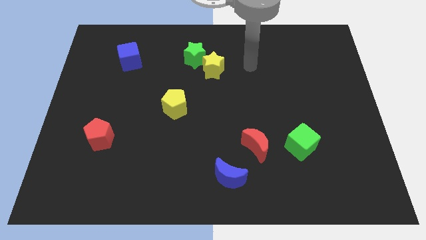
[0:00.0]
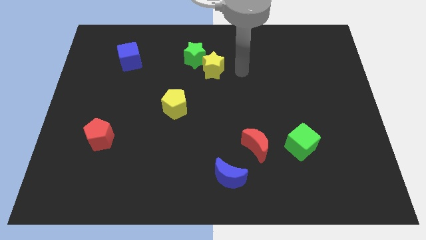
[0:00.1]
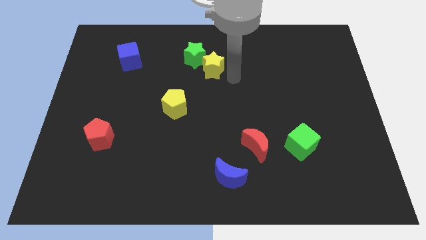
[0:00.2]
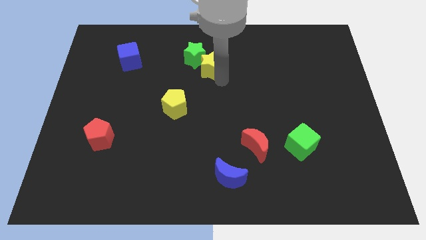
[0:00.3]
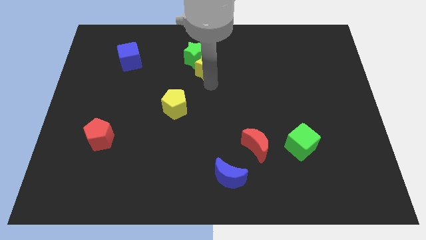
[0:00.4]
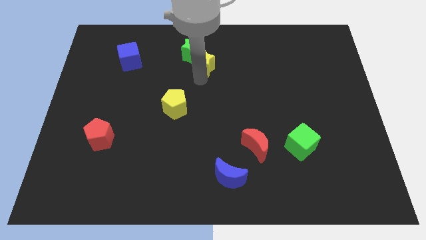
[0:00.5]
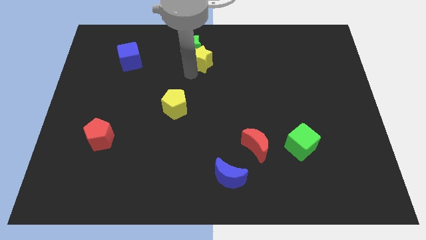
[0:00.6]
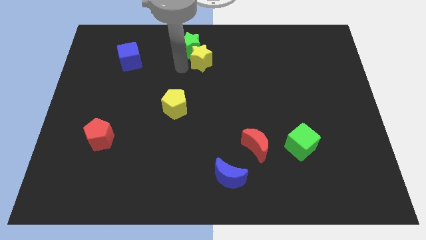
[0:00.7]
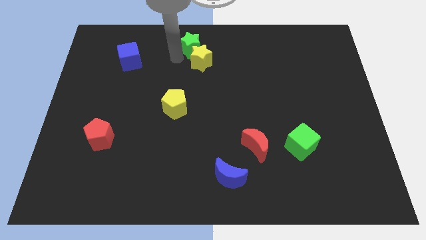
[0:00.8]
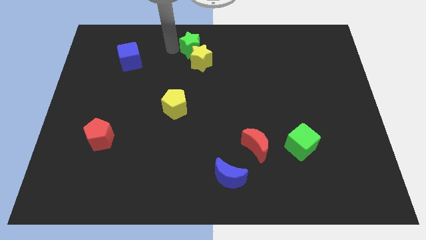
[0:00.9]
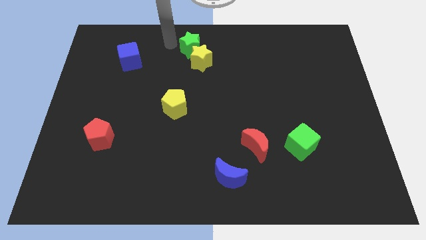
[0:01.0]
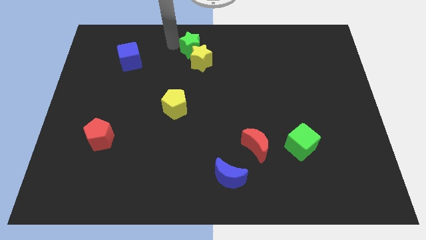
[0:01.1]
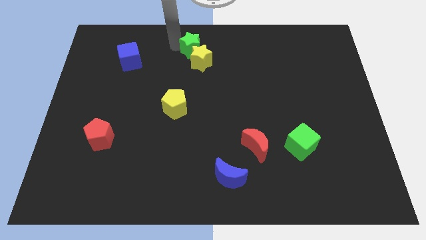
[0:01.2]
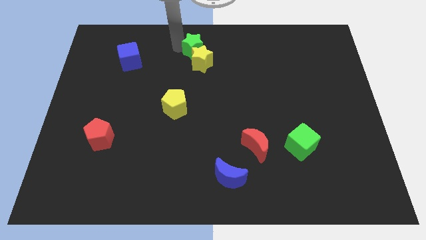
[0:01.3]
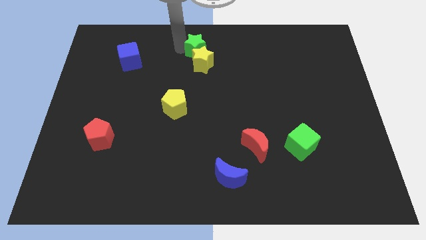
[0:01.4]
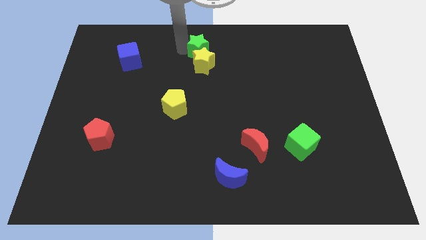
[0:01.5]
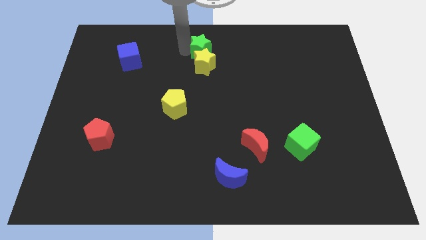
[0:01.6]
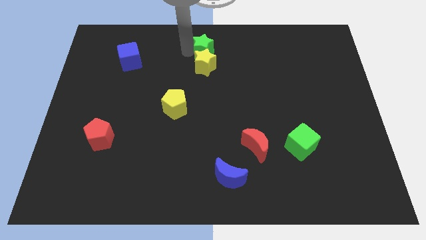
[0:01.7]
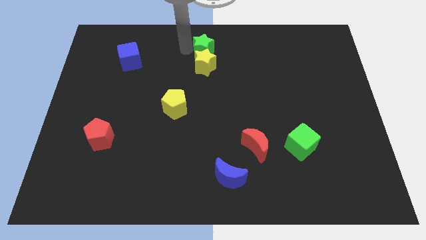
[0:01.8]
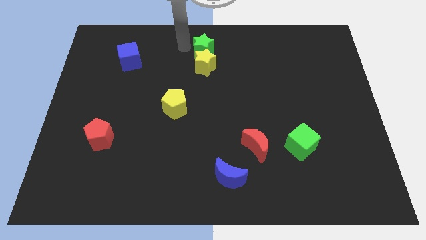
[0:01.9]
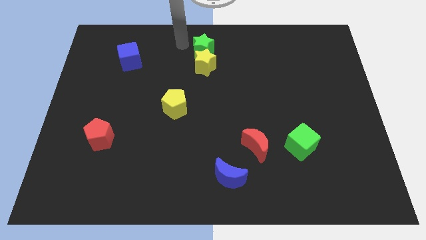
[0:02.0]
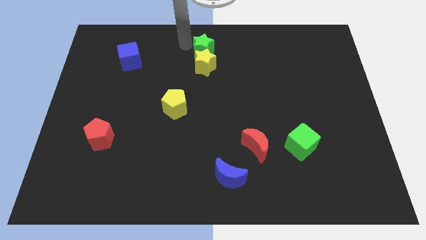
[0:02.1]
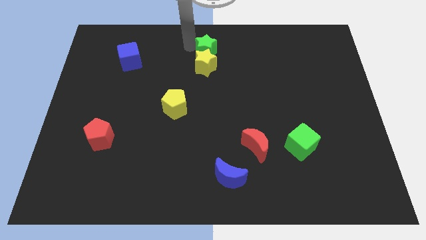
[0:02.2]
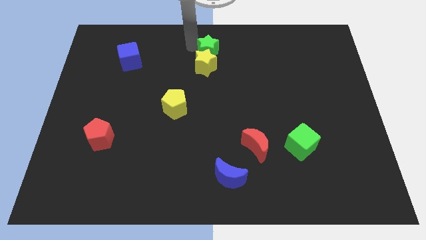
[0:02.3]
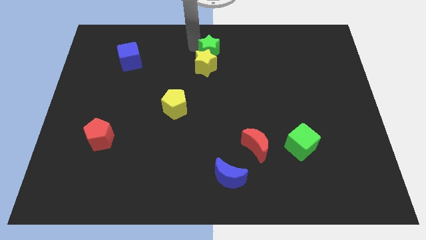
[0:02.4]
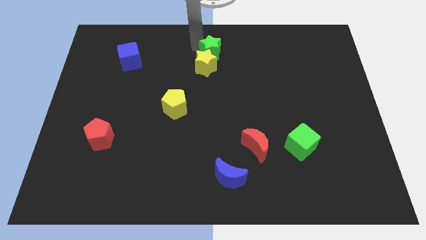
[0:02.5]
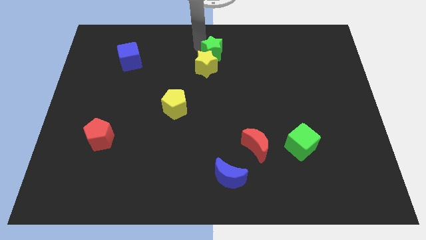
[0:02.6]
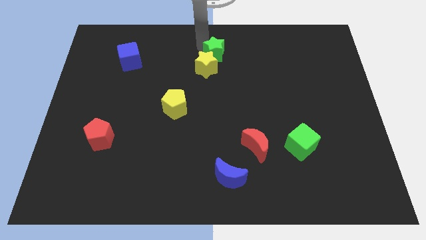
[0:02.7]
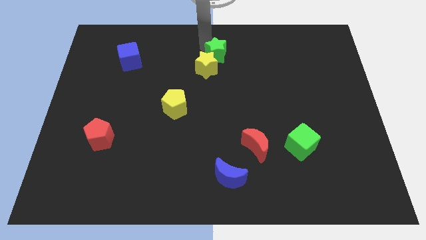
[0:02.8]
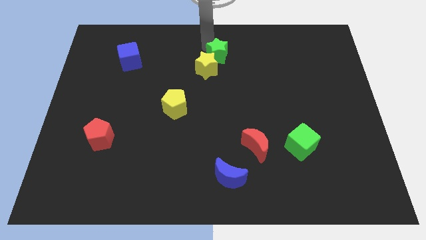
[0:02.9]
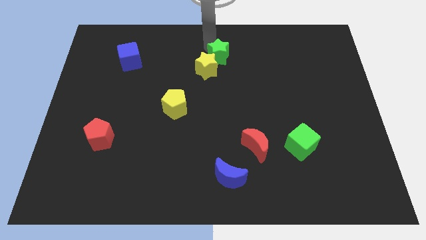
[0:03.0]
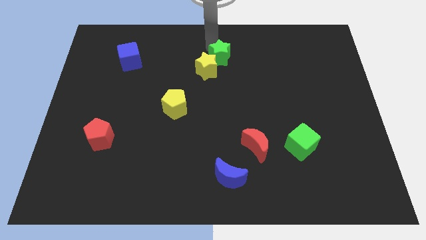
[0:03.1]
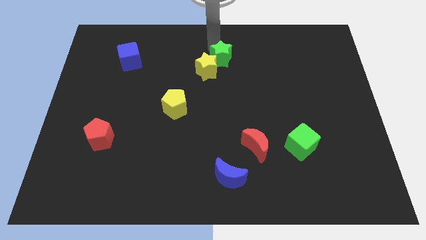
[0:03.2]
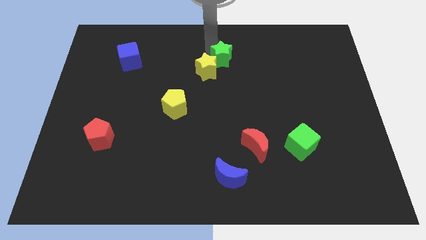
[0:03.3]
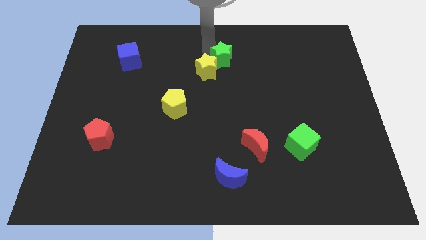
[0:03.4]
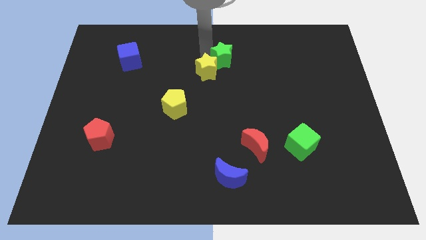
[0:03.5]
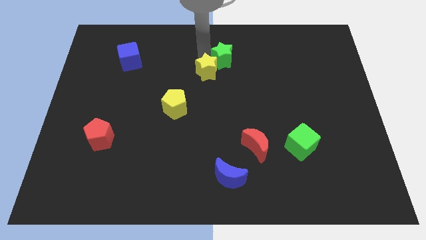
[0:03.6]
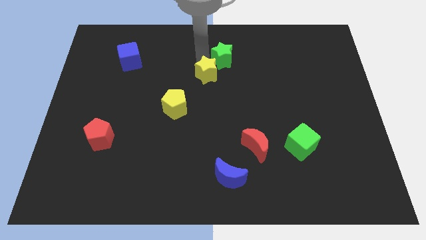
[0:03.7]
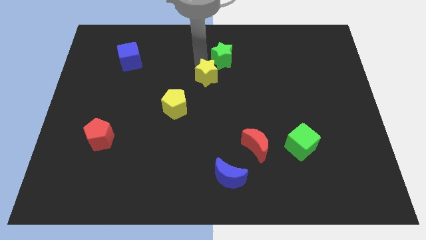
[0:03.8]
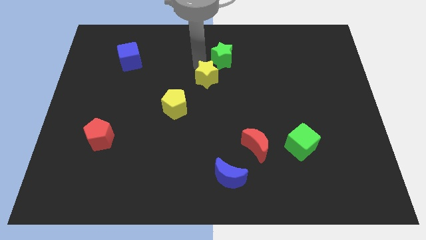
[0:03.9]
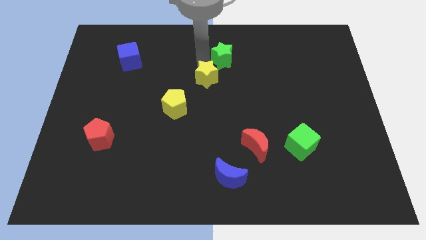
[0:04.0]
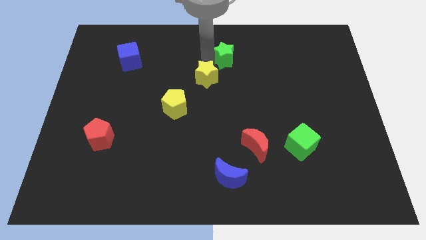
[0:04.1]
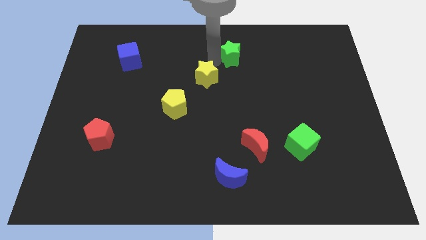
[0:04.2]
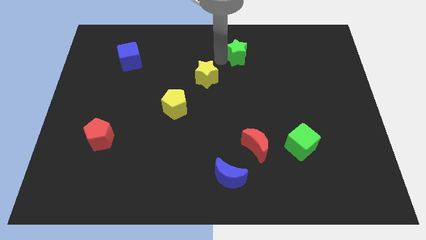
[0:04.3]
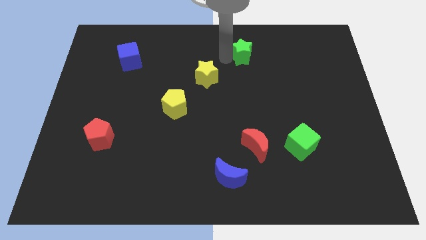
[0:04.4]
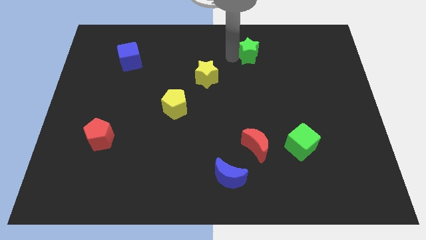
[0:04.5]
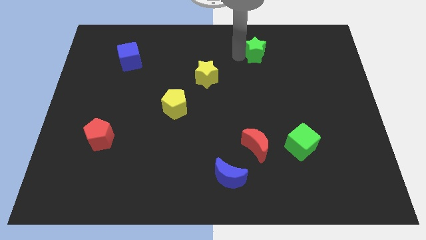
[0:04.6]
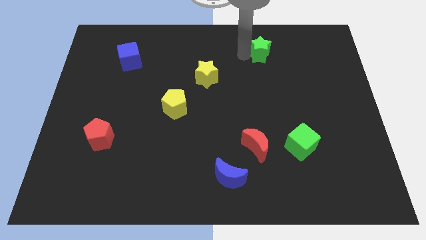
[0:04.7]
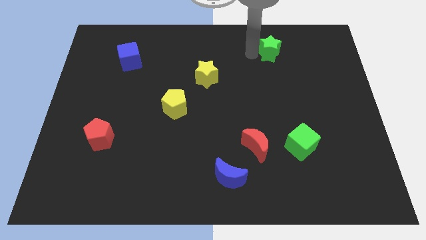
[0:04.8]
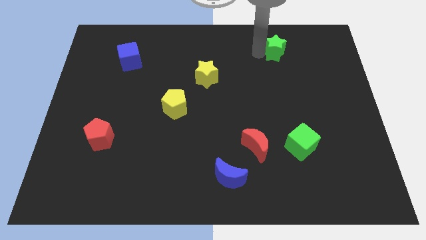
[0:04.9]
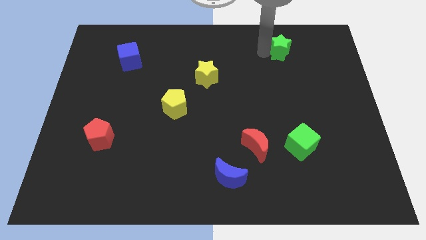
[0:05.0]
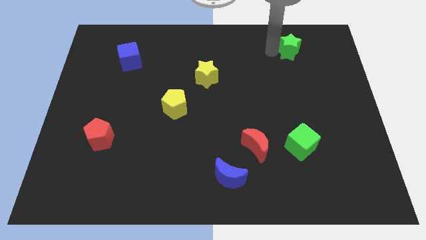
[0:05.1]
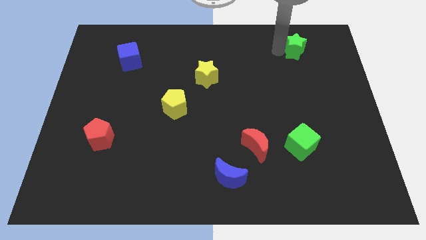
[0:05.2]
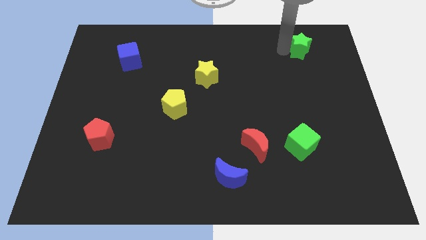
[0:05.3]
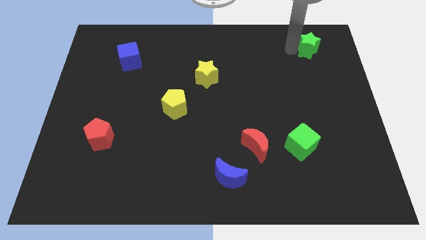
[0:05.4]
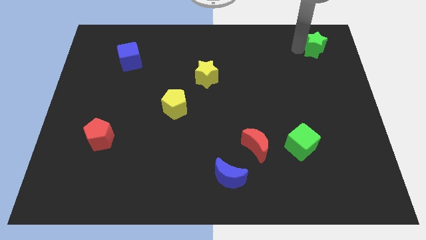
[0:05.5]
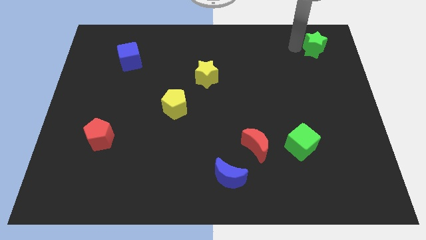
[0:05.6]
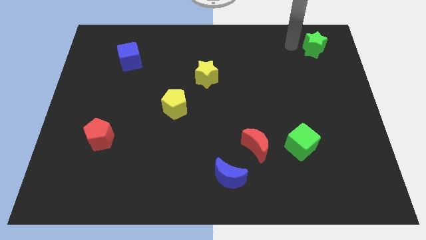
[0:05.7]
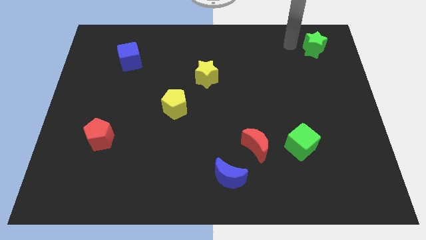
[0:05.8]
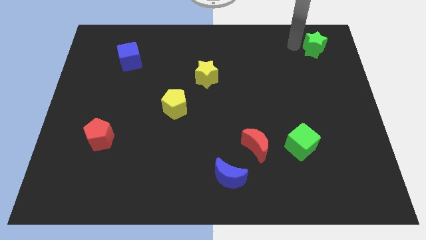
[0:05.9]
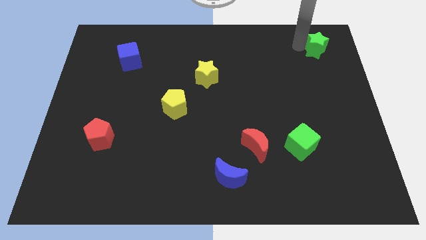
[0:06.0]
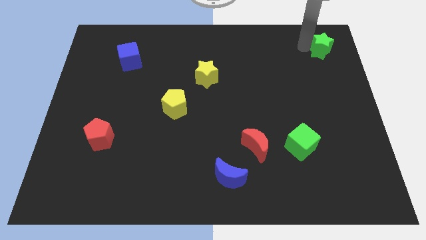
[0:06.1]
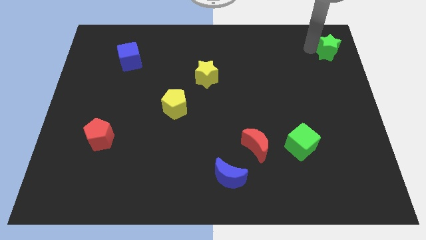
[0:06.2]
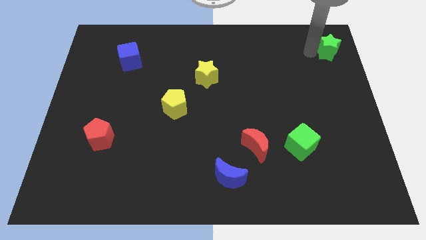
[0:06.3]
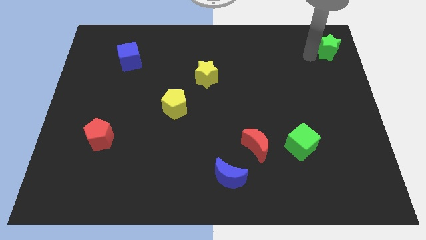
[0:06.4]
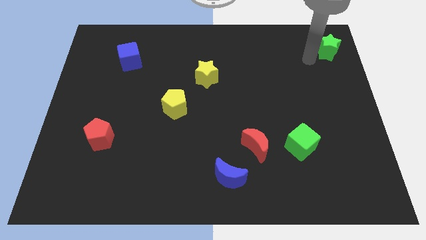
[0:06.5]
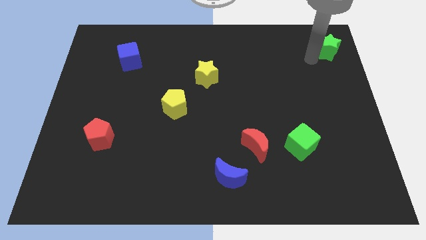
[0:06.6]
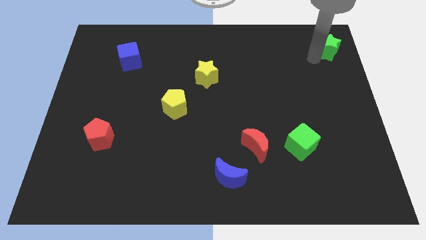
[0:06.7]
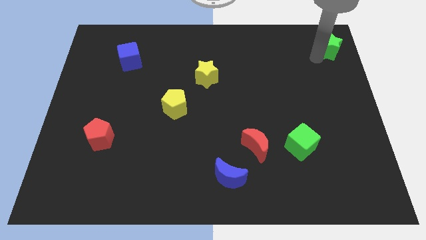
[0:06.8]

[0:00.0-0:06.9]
move the green star to the top right
